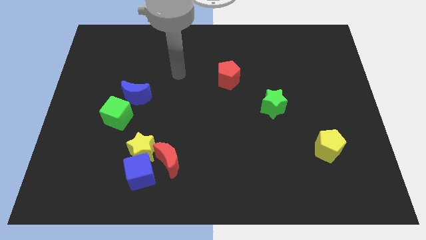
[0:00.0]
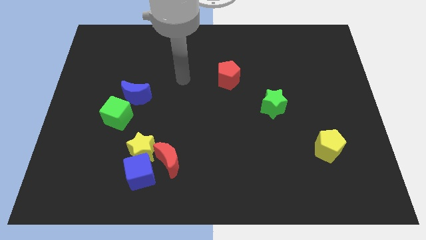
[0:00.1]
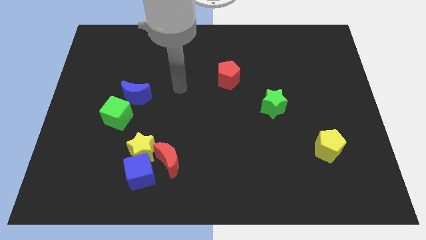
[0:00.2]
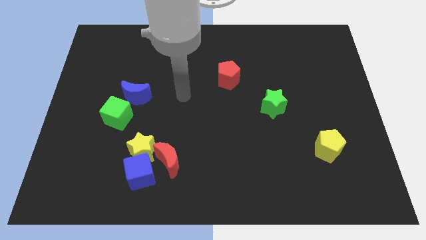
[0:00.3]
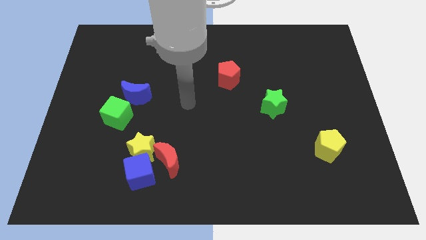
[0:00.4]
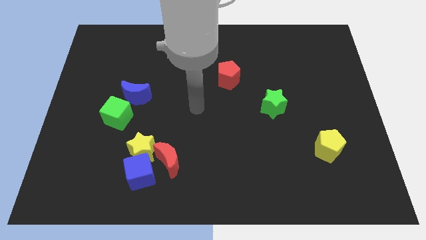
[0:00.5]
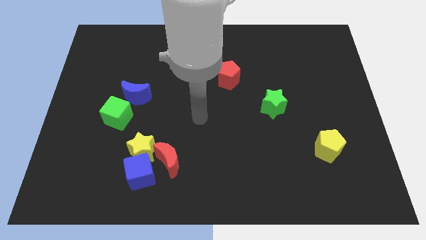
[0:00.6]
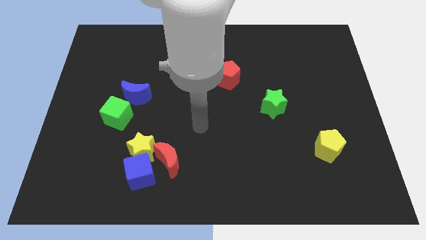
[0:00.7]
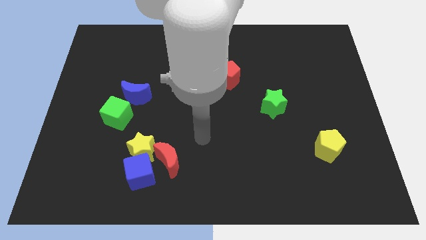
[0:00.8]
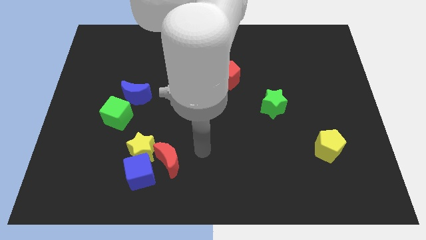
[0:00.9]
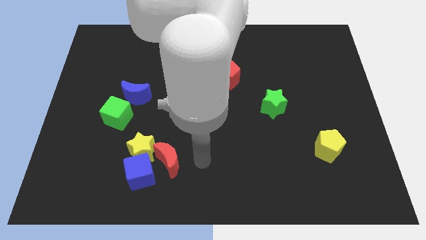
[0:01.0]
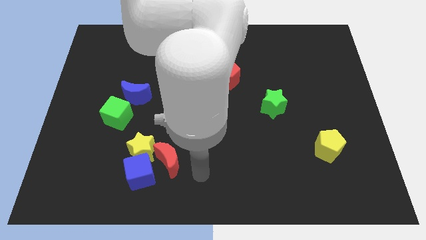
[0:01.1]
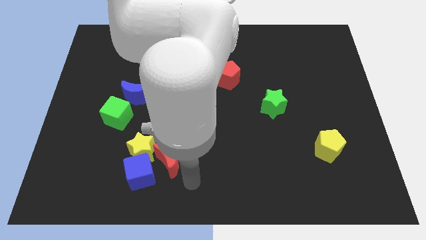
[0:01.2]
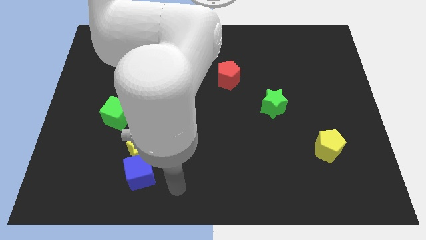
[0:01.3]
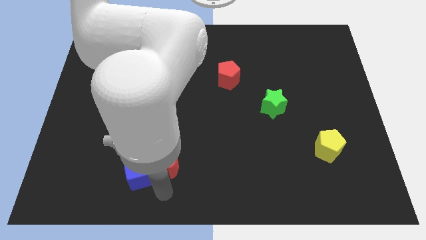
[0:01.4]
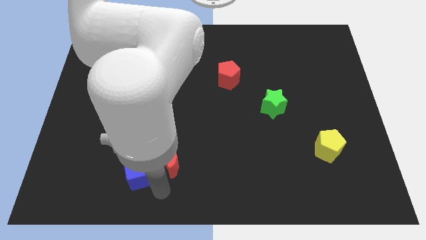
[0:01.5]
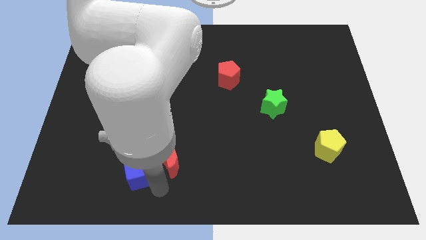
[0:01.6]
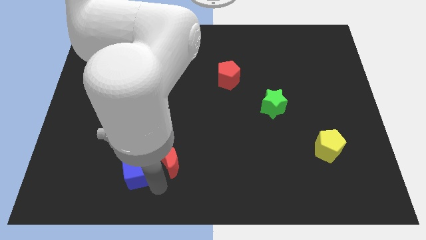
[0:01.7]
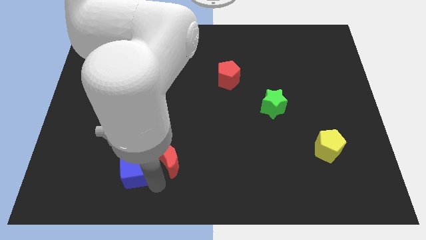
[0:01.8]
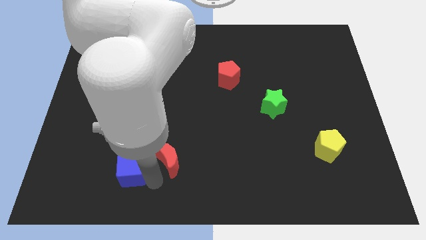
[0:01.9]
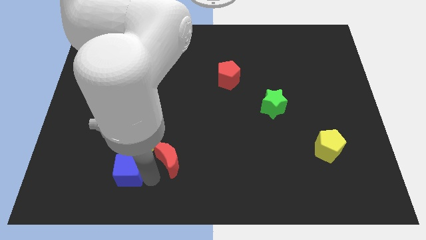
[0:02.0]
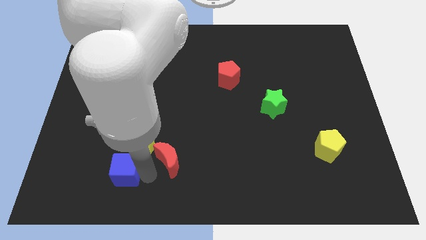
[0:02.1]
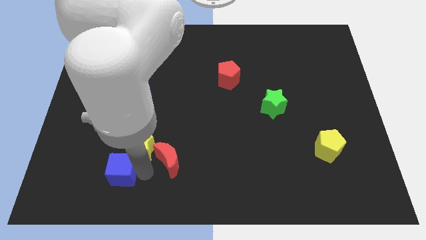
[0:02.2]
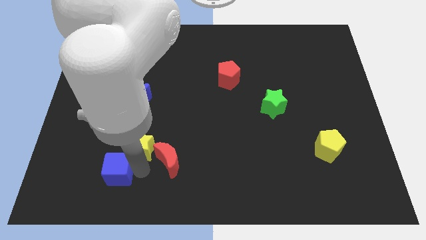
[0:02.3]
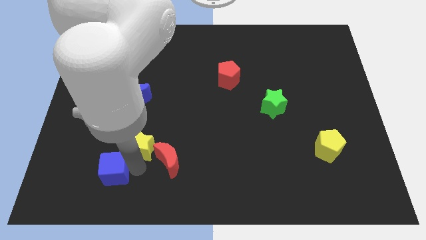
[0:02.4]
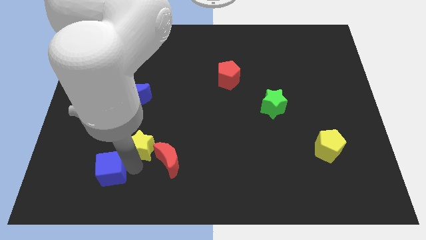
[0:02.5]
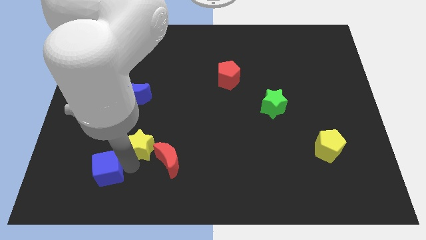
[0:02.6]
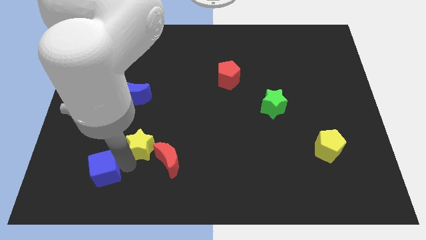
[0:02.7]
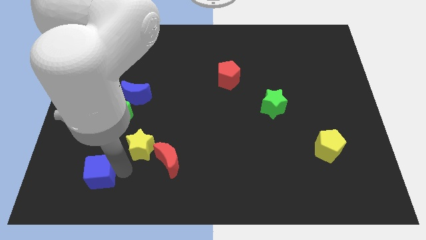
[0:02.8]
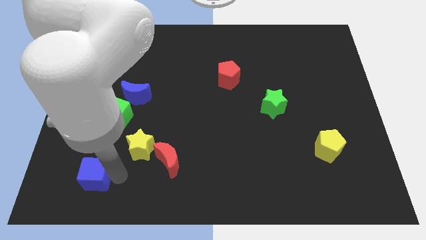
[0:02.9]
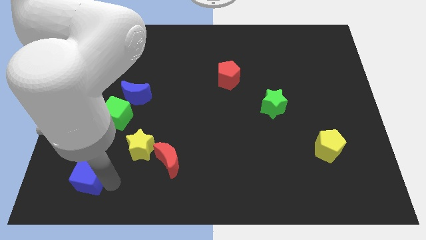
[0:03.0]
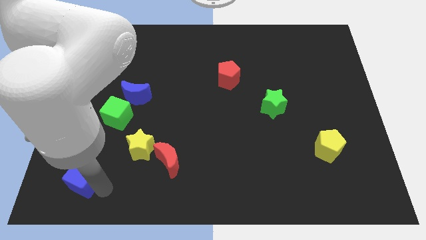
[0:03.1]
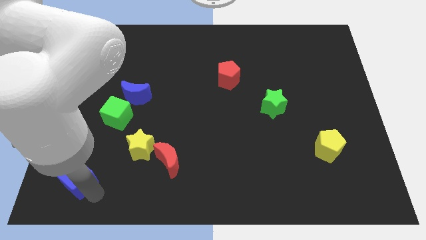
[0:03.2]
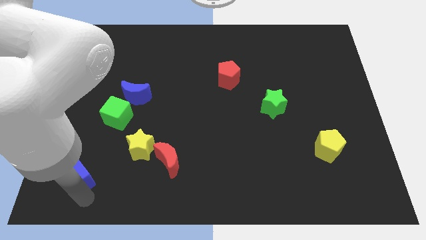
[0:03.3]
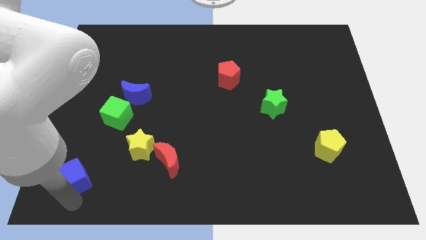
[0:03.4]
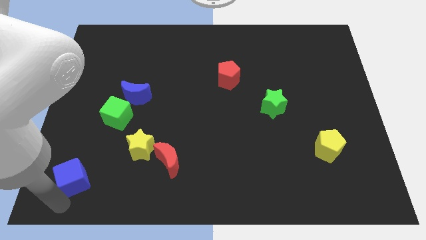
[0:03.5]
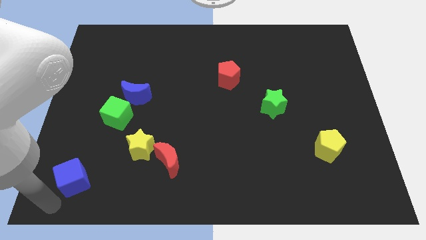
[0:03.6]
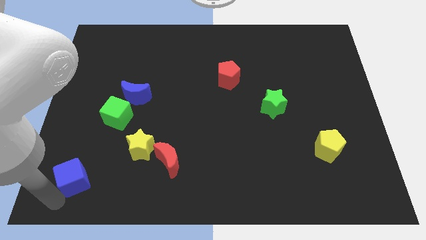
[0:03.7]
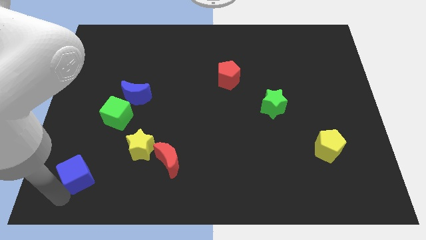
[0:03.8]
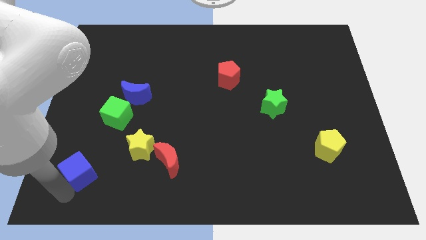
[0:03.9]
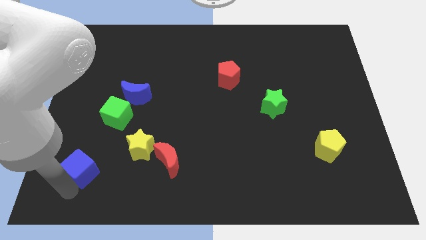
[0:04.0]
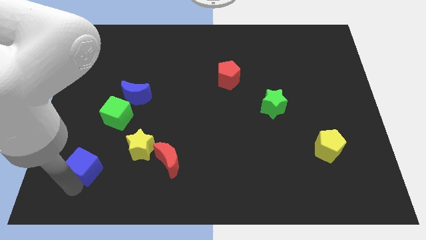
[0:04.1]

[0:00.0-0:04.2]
push the blue cube diagonally up and left slightly

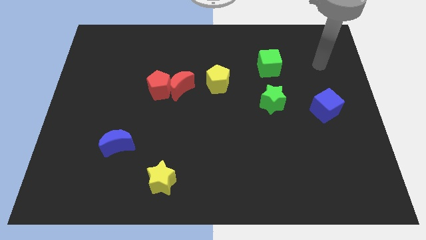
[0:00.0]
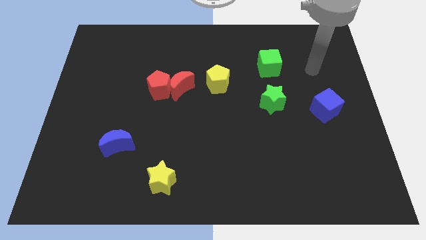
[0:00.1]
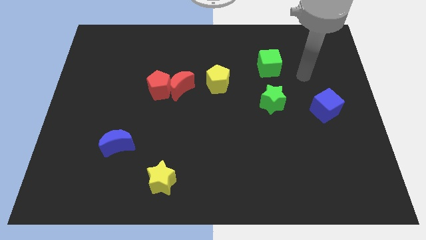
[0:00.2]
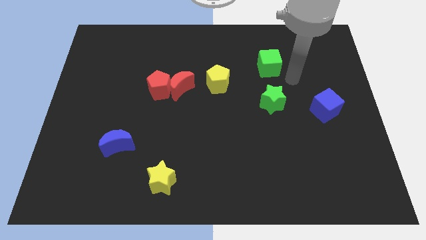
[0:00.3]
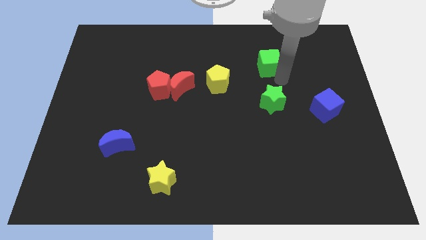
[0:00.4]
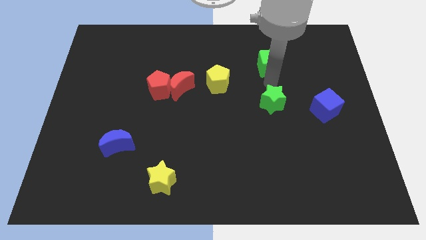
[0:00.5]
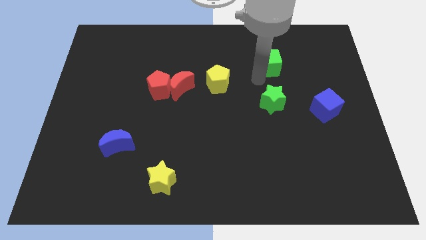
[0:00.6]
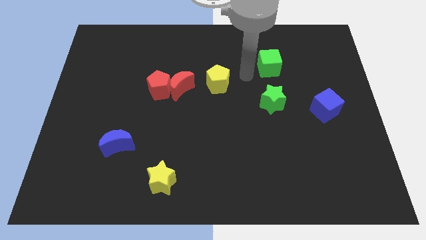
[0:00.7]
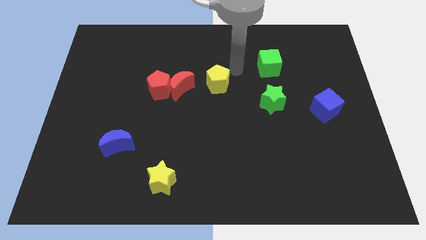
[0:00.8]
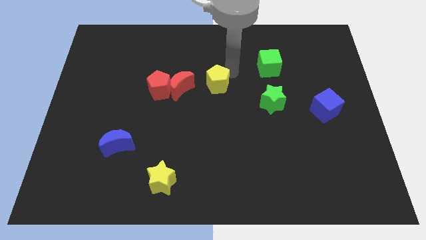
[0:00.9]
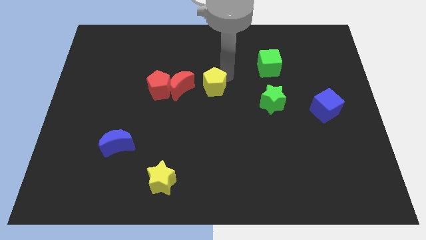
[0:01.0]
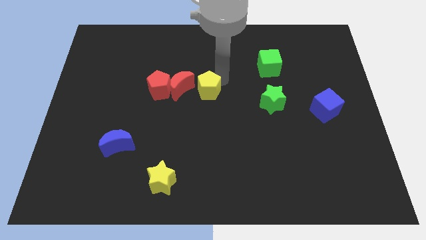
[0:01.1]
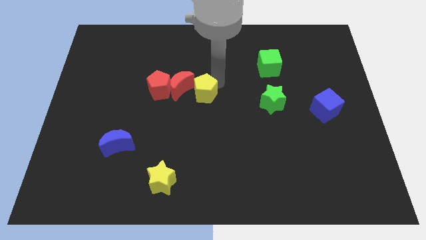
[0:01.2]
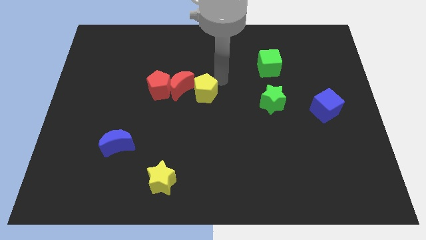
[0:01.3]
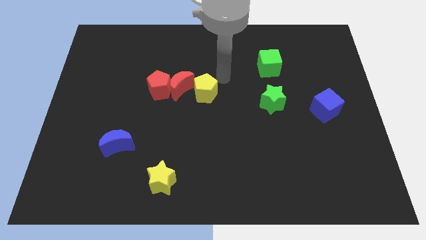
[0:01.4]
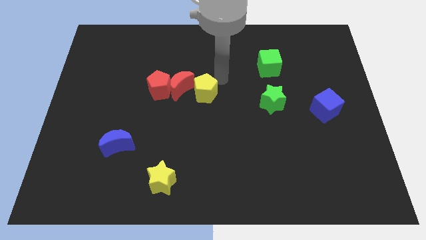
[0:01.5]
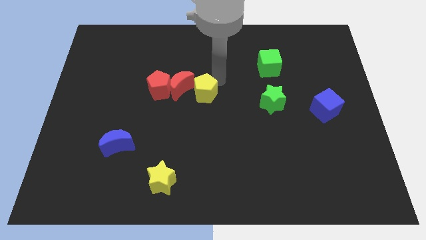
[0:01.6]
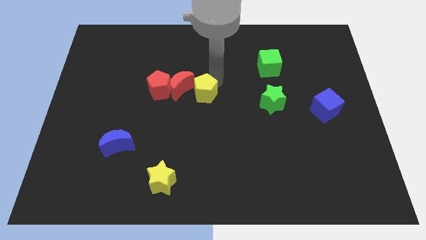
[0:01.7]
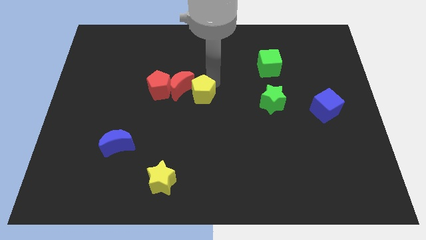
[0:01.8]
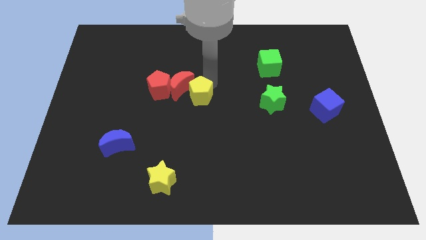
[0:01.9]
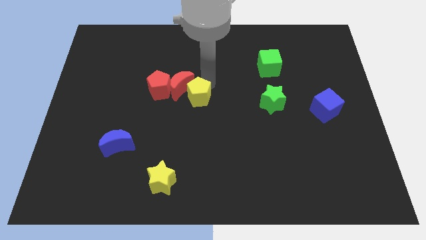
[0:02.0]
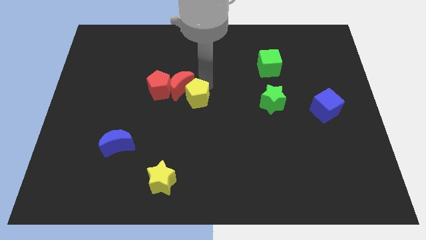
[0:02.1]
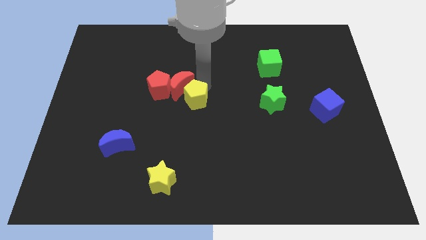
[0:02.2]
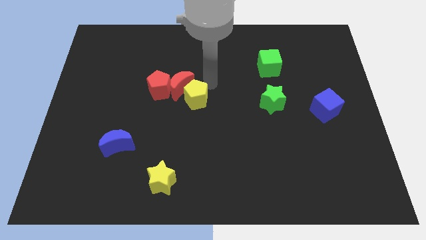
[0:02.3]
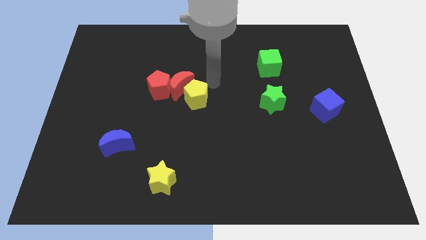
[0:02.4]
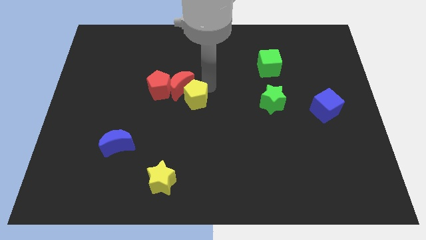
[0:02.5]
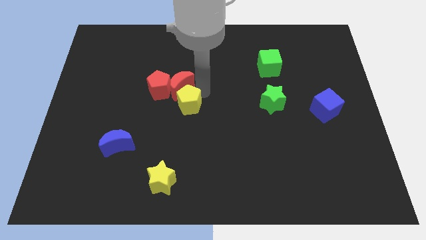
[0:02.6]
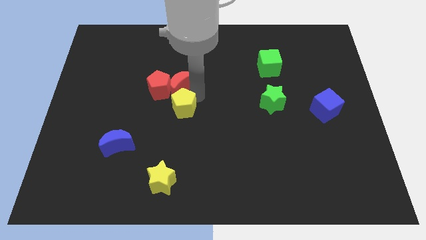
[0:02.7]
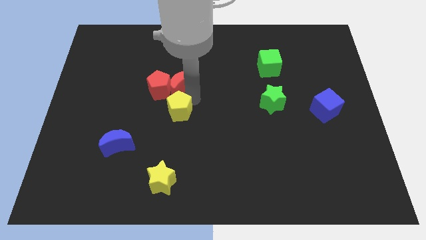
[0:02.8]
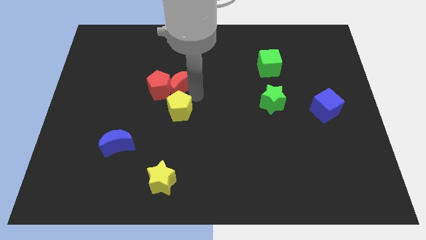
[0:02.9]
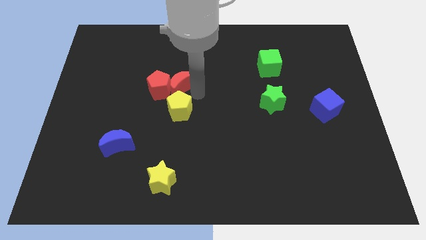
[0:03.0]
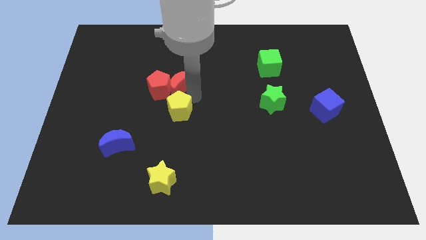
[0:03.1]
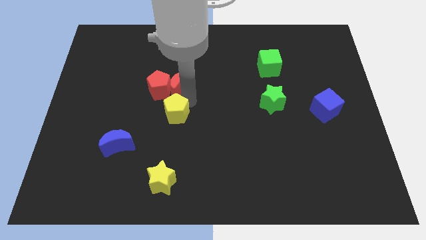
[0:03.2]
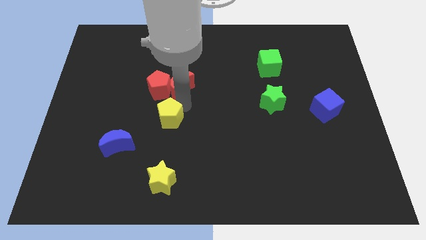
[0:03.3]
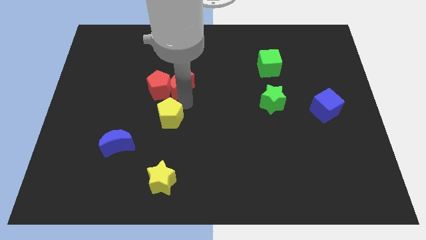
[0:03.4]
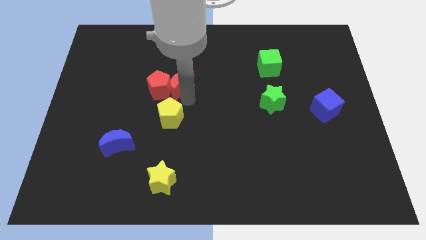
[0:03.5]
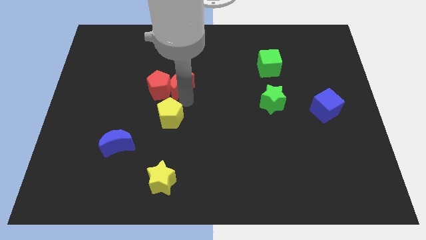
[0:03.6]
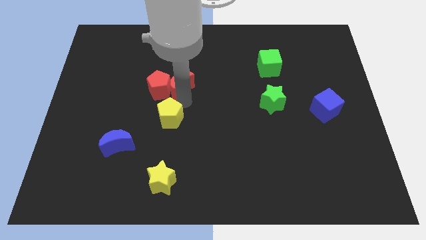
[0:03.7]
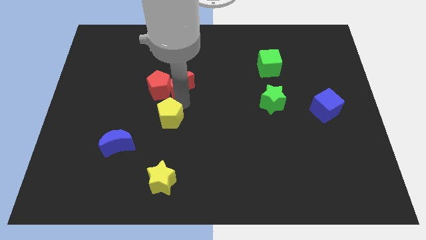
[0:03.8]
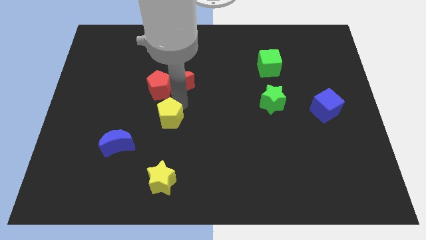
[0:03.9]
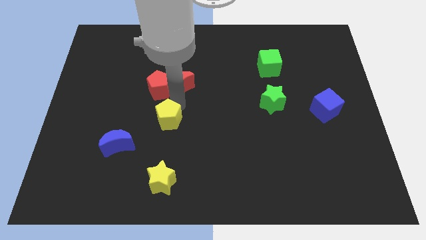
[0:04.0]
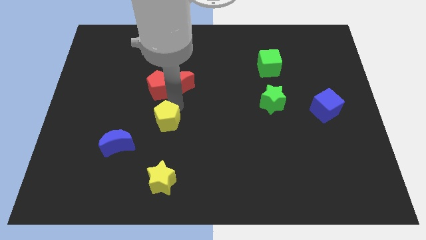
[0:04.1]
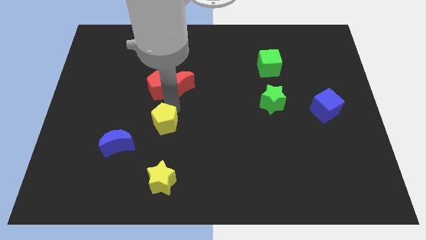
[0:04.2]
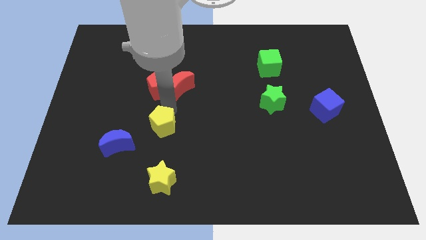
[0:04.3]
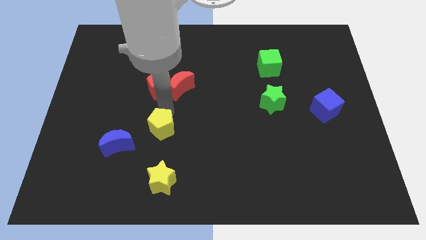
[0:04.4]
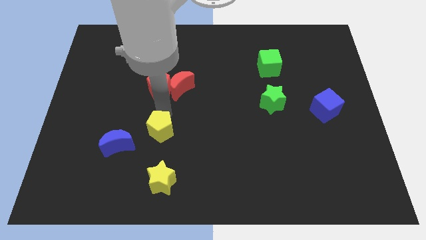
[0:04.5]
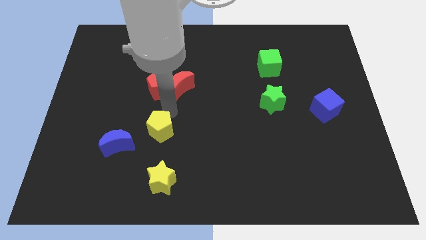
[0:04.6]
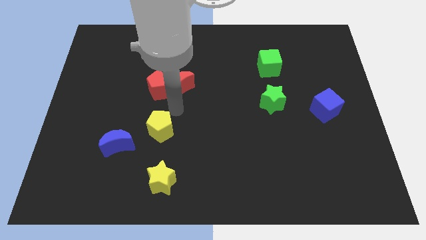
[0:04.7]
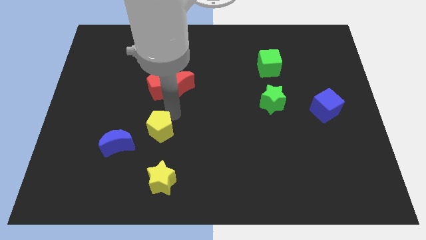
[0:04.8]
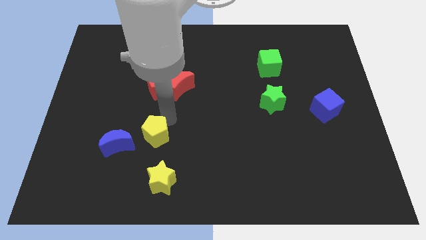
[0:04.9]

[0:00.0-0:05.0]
slide the yellow pentagon down and then to the left
